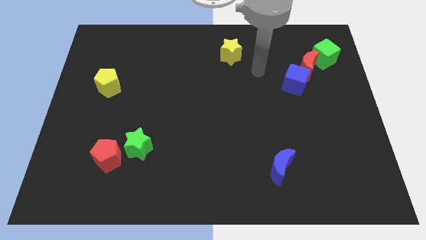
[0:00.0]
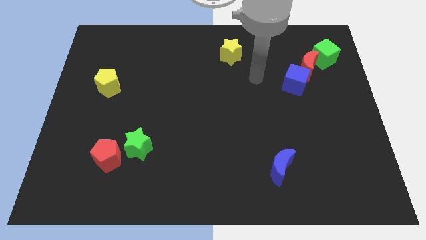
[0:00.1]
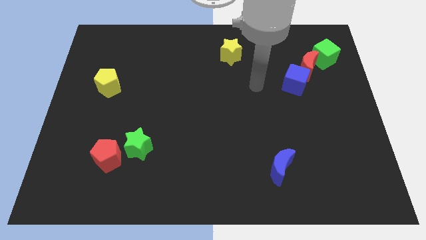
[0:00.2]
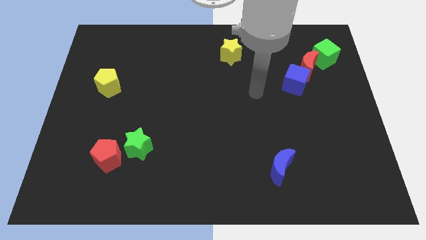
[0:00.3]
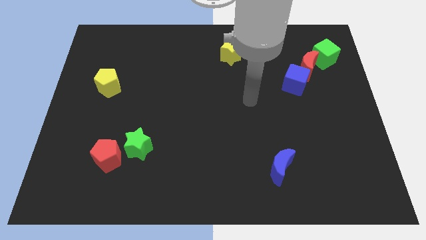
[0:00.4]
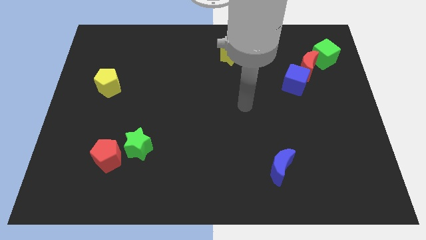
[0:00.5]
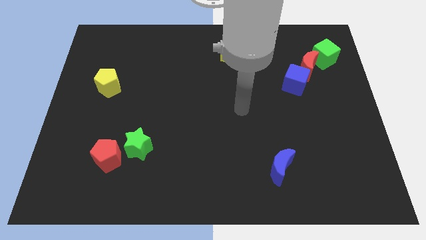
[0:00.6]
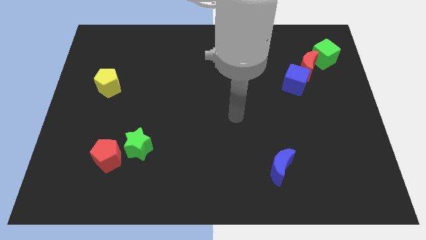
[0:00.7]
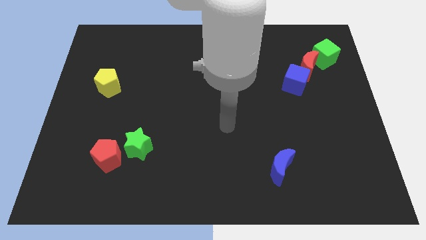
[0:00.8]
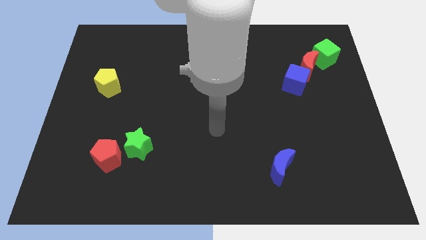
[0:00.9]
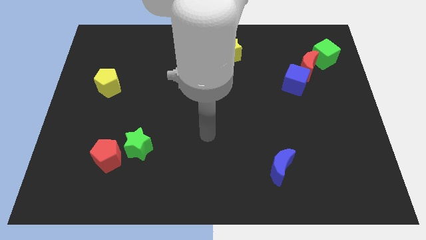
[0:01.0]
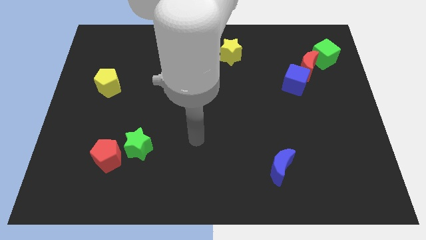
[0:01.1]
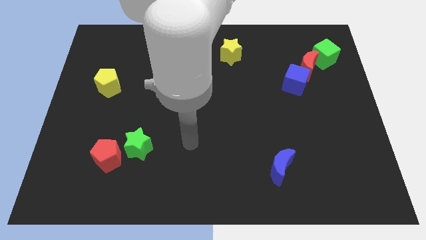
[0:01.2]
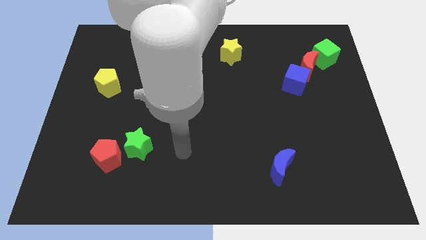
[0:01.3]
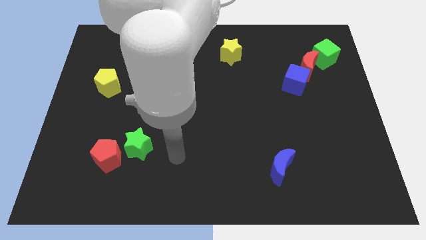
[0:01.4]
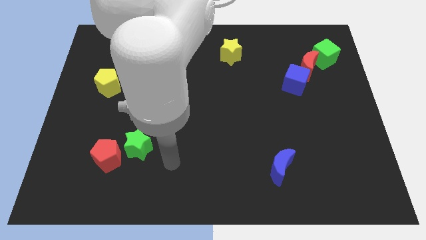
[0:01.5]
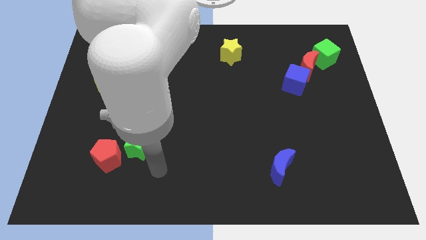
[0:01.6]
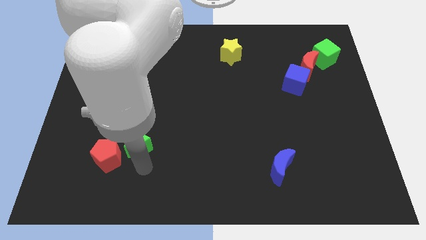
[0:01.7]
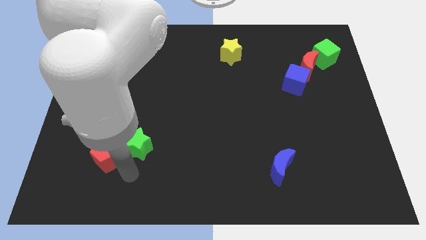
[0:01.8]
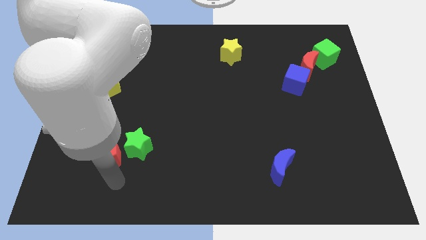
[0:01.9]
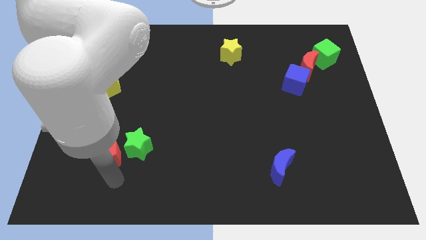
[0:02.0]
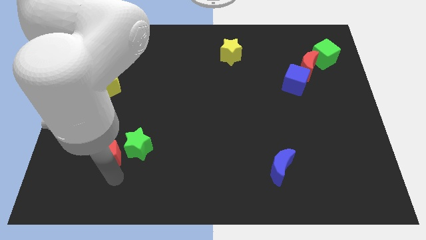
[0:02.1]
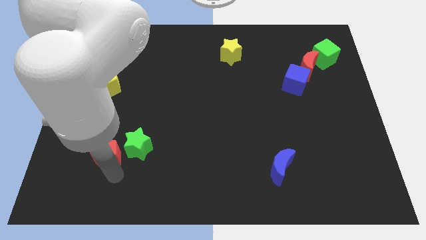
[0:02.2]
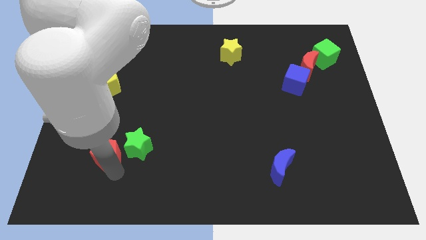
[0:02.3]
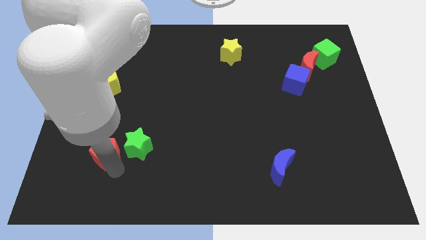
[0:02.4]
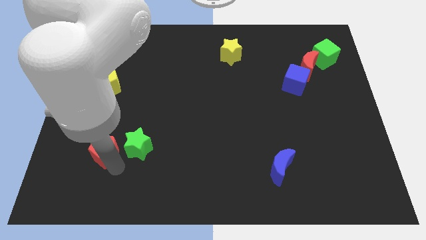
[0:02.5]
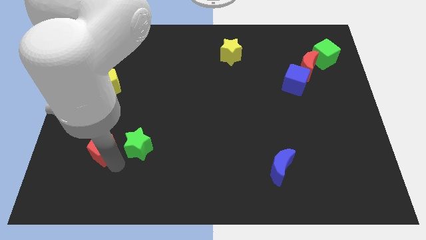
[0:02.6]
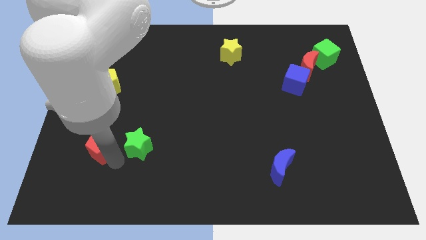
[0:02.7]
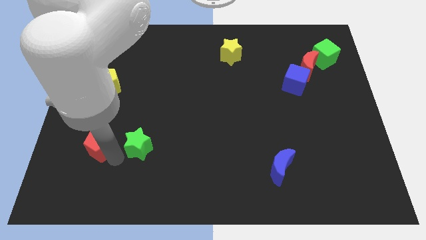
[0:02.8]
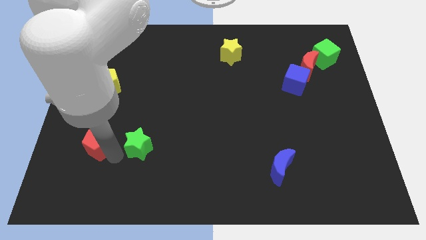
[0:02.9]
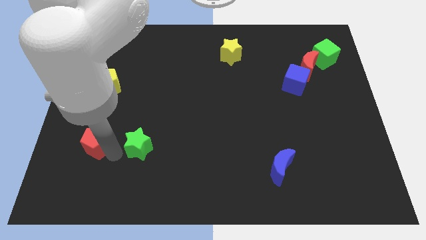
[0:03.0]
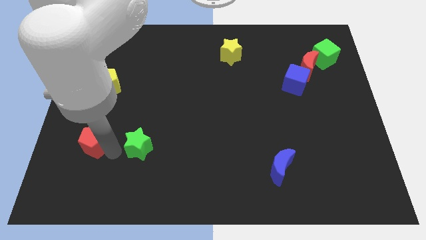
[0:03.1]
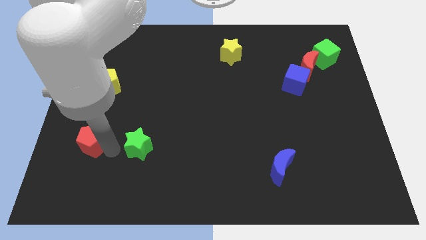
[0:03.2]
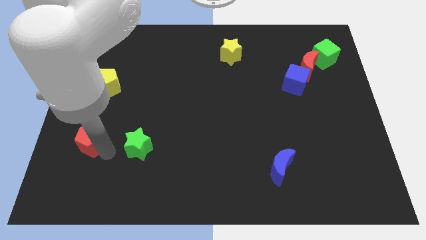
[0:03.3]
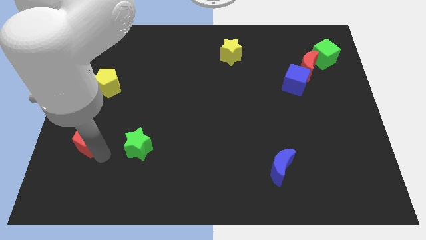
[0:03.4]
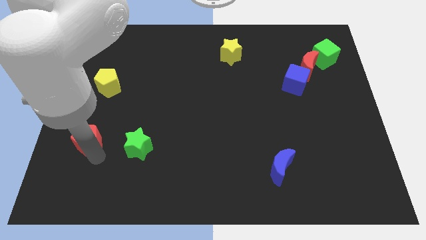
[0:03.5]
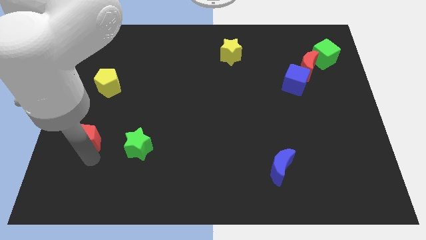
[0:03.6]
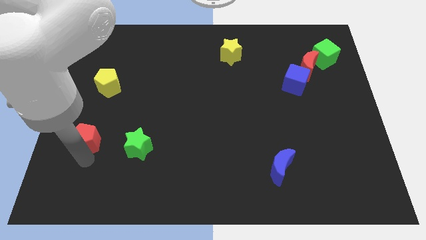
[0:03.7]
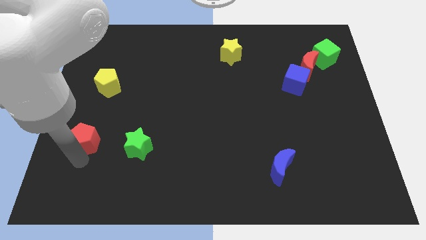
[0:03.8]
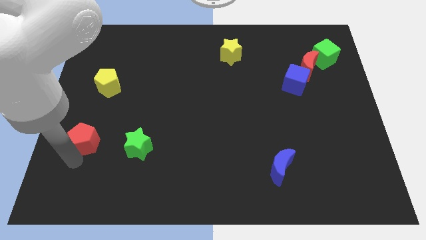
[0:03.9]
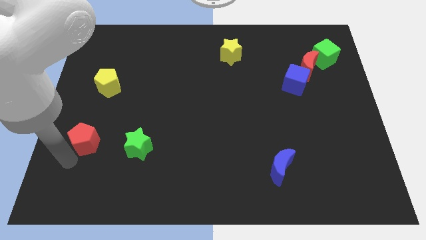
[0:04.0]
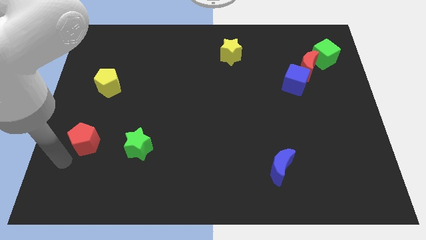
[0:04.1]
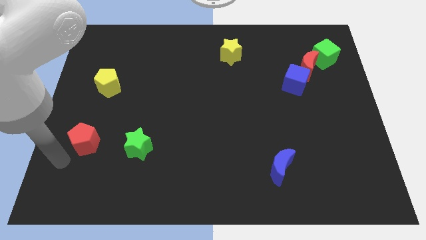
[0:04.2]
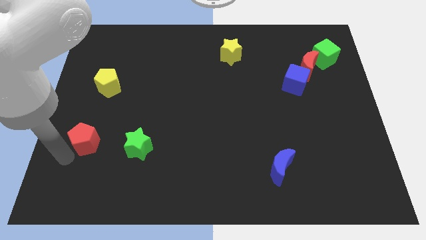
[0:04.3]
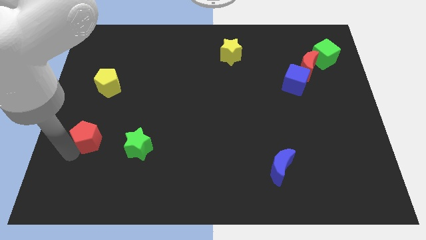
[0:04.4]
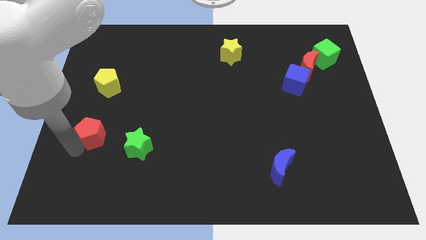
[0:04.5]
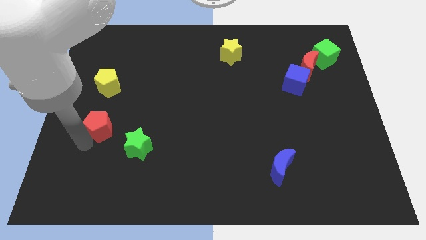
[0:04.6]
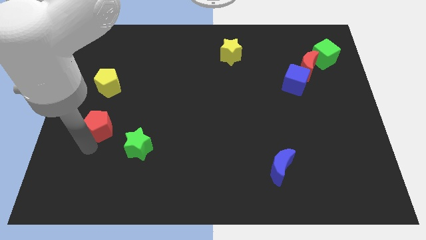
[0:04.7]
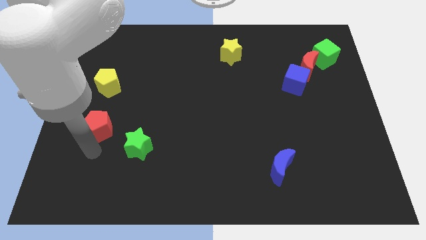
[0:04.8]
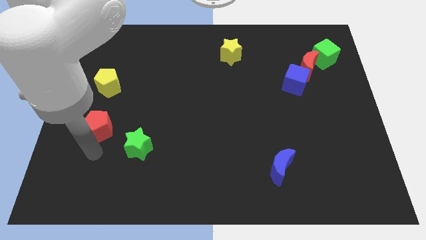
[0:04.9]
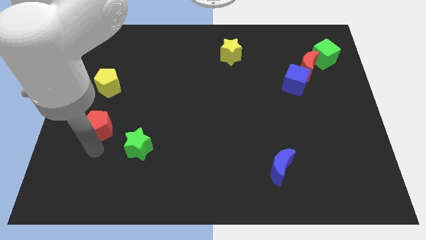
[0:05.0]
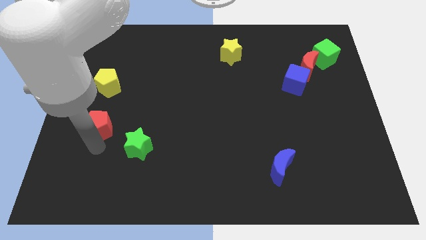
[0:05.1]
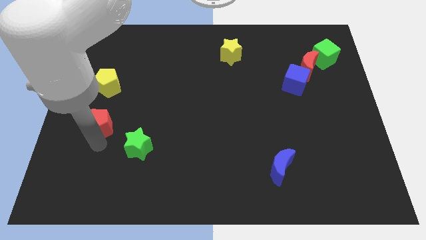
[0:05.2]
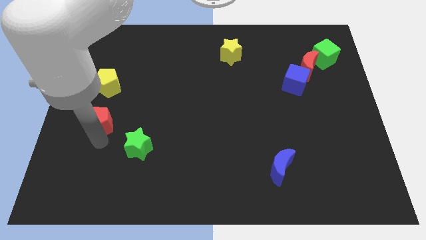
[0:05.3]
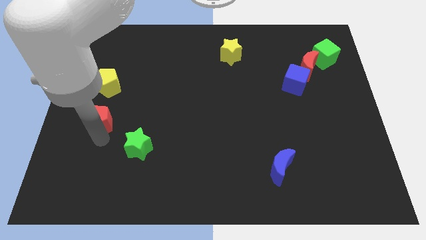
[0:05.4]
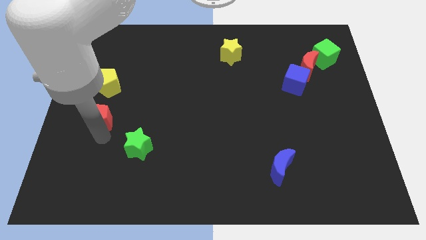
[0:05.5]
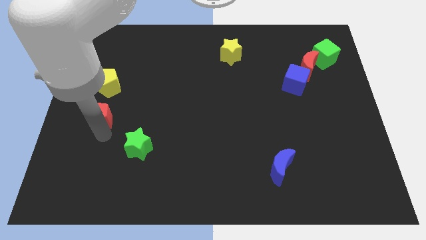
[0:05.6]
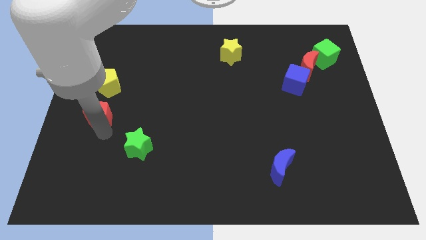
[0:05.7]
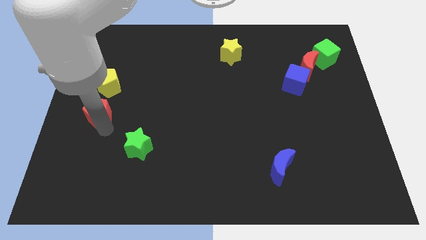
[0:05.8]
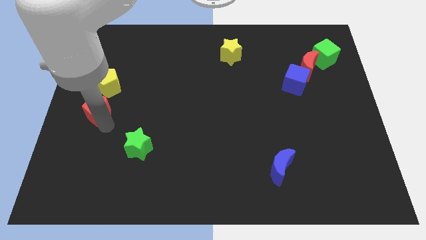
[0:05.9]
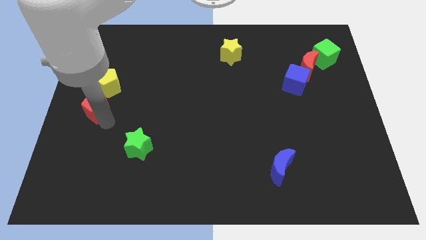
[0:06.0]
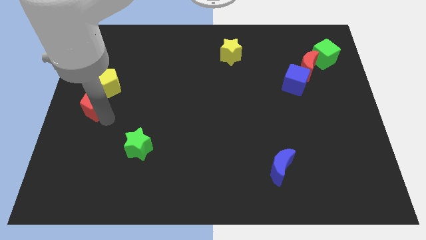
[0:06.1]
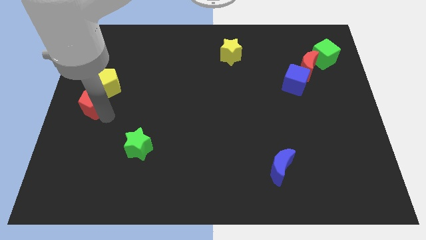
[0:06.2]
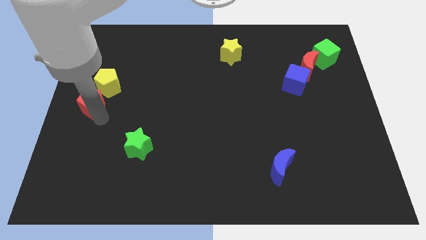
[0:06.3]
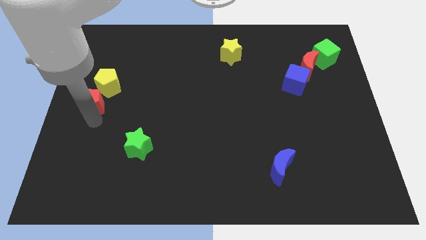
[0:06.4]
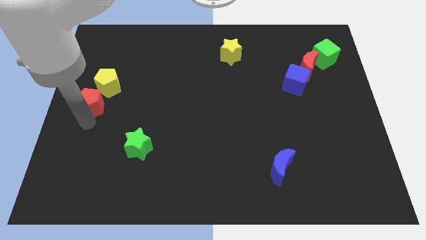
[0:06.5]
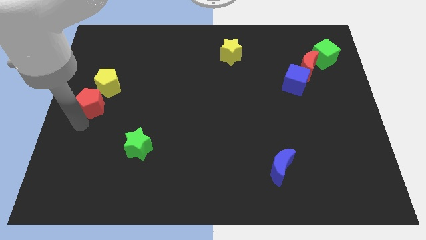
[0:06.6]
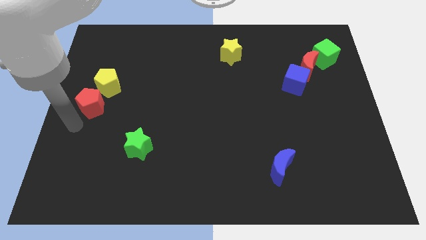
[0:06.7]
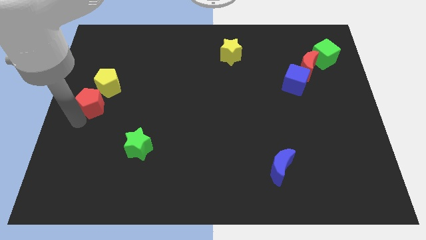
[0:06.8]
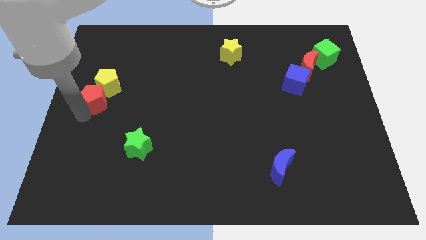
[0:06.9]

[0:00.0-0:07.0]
move the red pentagon close to the yellow pentagon

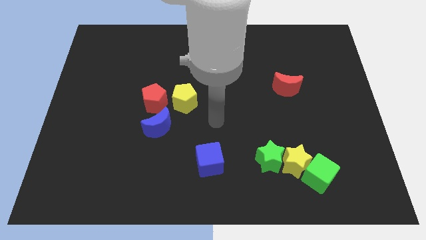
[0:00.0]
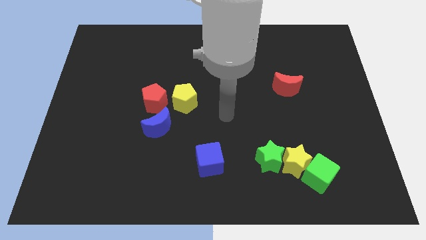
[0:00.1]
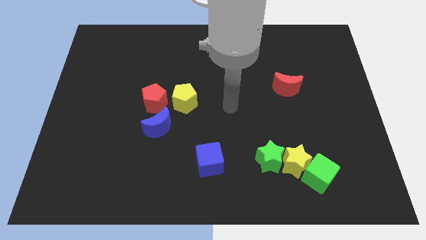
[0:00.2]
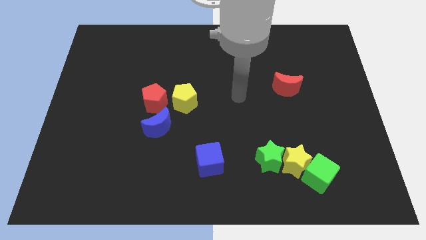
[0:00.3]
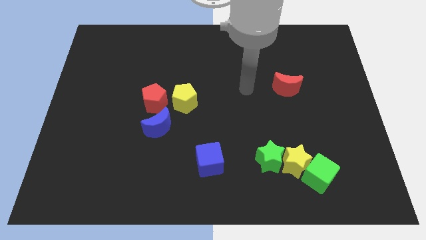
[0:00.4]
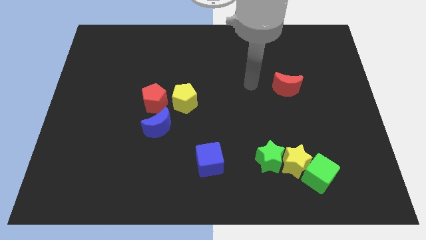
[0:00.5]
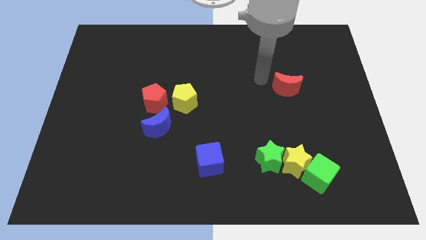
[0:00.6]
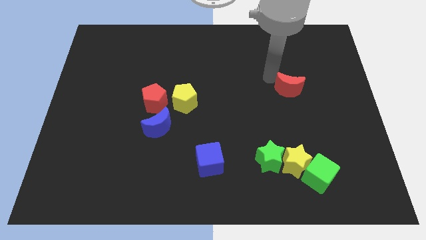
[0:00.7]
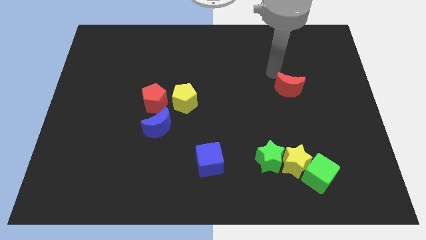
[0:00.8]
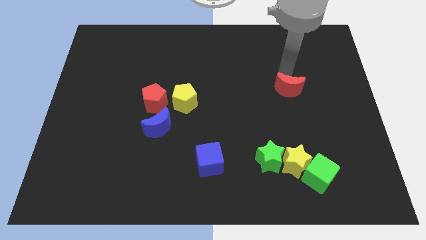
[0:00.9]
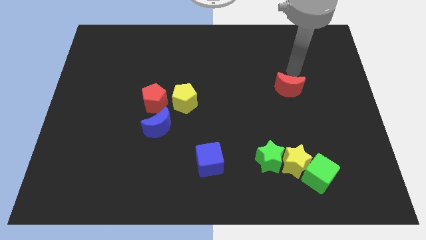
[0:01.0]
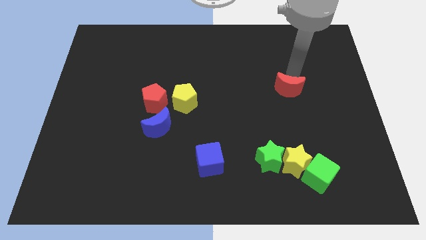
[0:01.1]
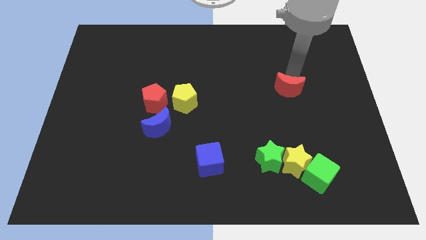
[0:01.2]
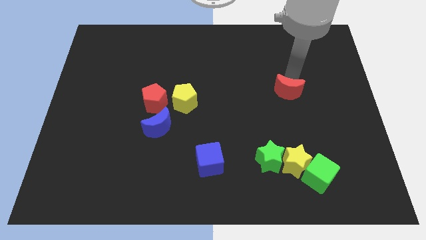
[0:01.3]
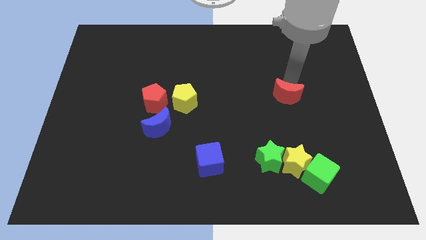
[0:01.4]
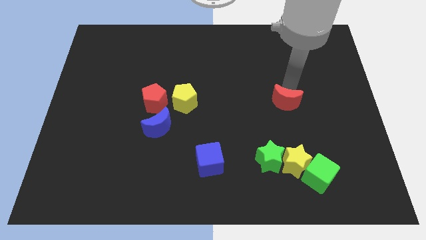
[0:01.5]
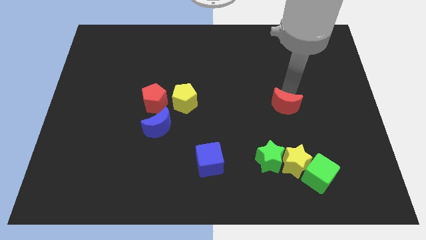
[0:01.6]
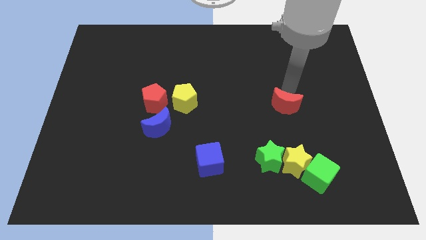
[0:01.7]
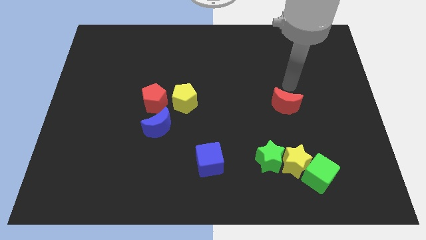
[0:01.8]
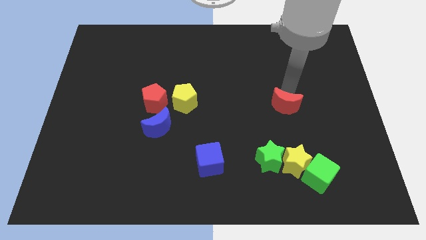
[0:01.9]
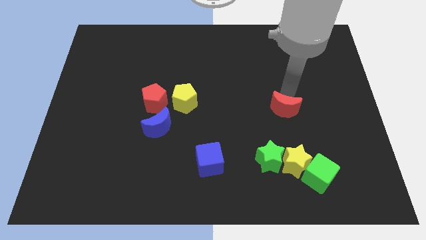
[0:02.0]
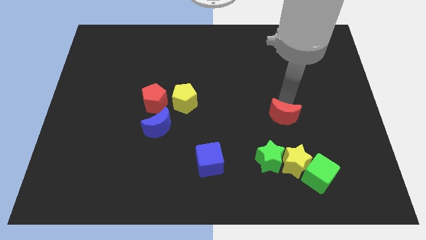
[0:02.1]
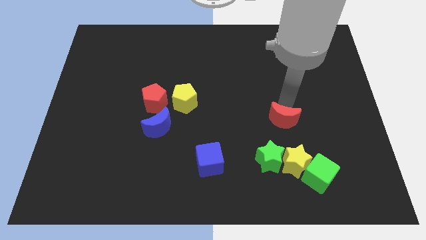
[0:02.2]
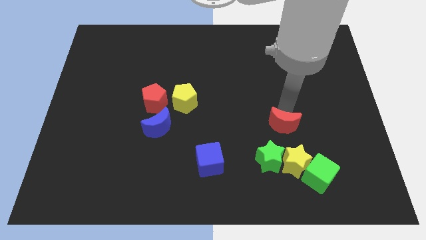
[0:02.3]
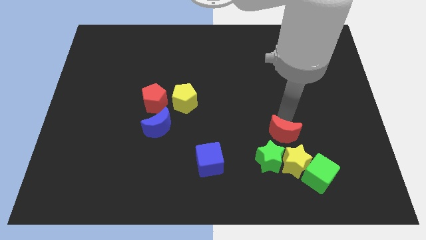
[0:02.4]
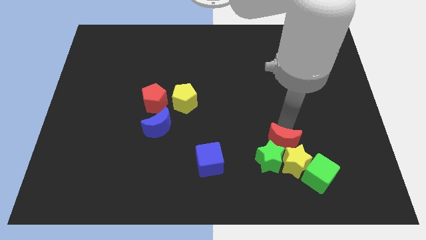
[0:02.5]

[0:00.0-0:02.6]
slide the red moon close to the green star
